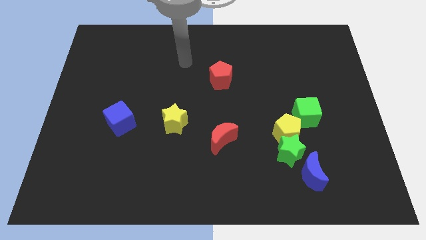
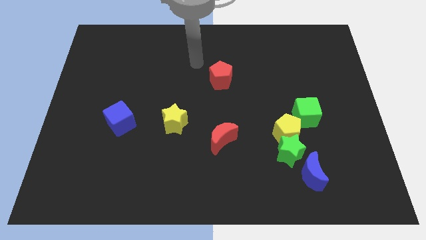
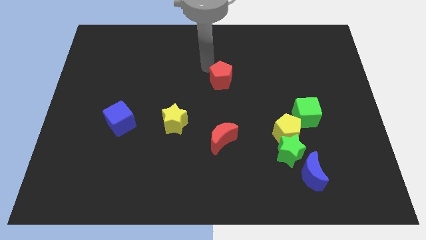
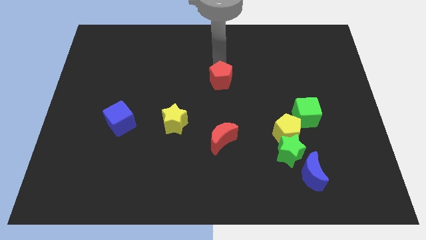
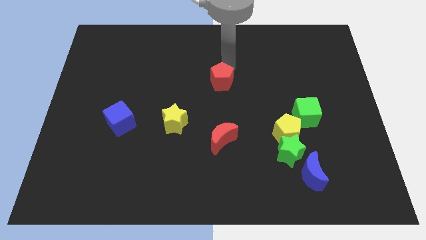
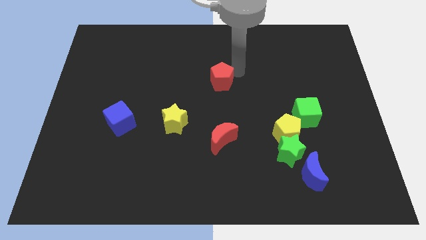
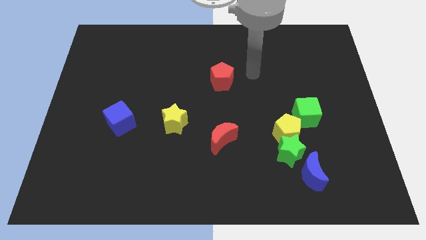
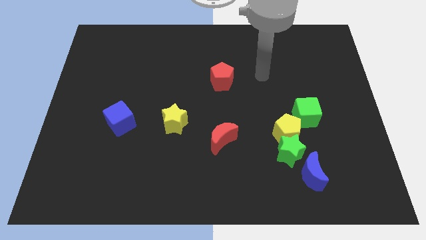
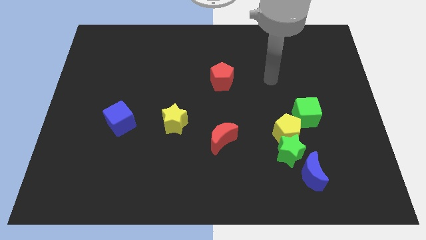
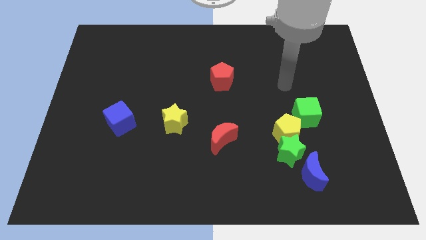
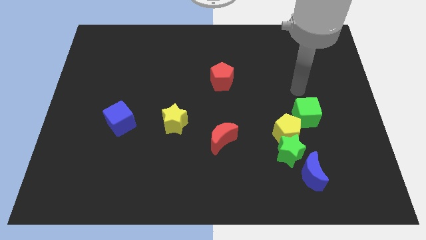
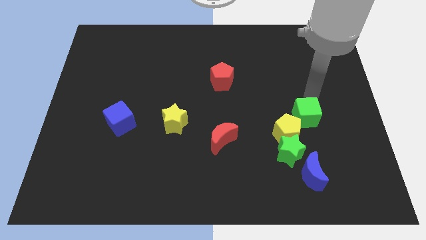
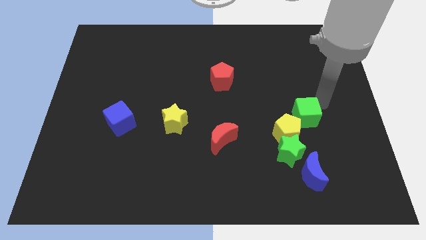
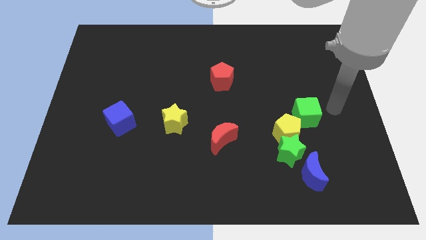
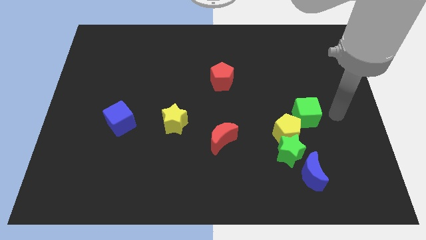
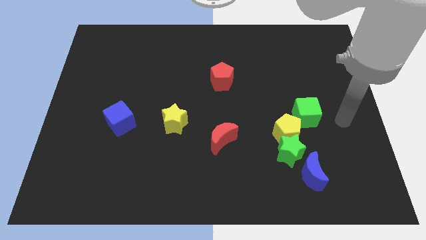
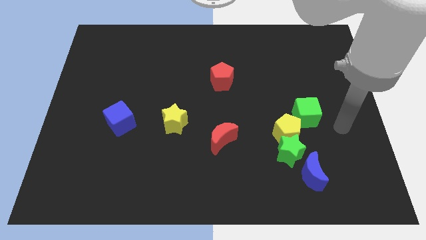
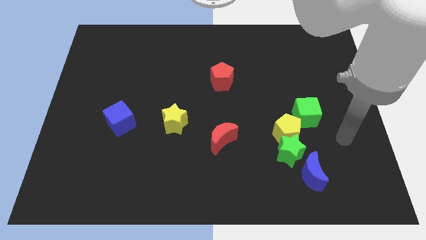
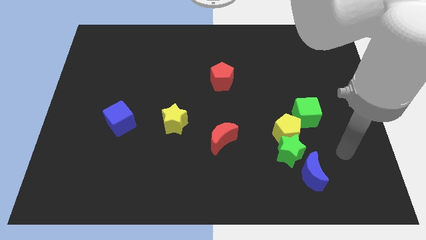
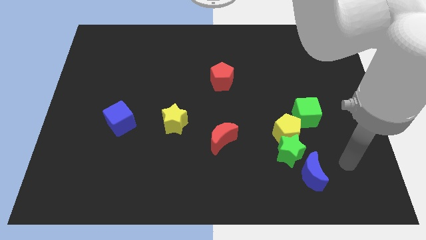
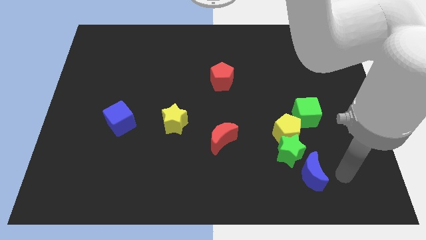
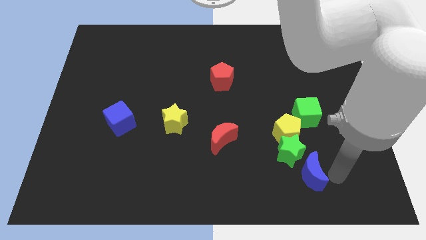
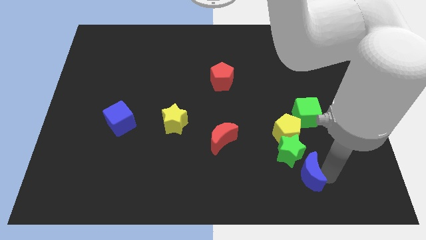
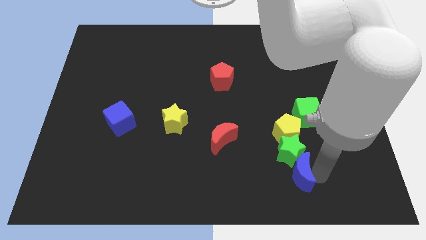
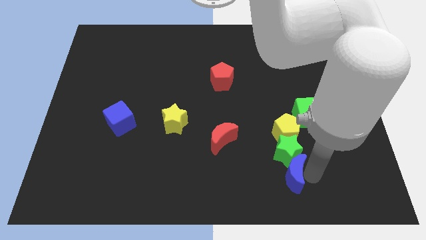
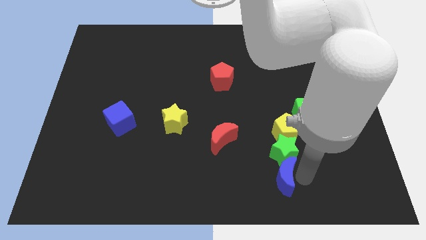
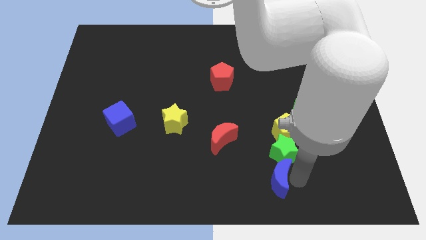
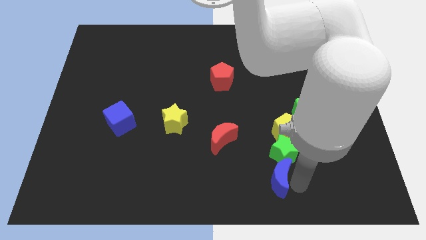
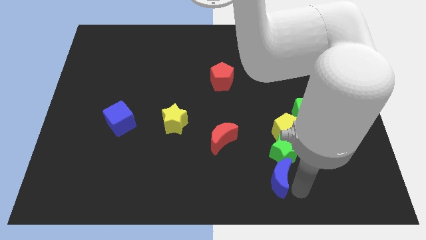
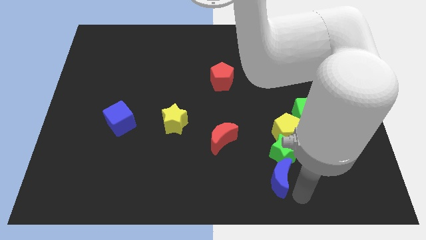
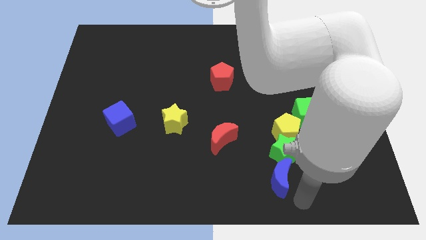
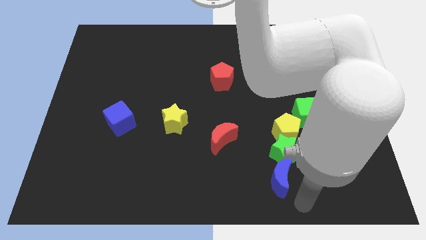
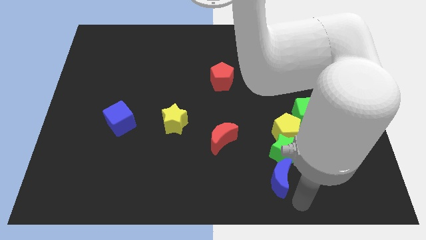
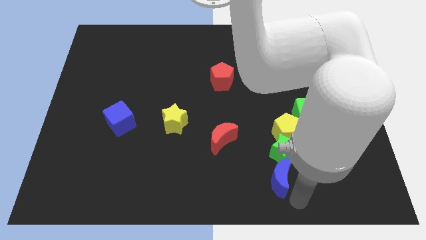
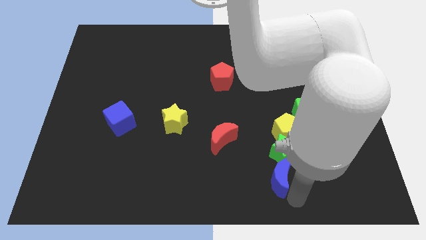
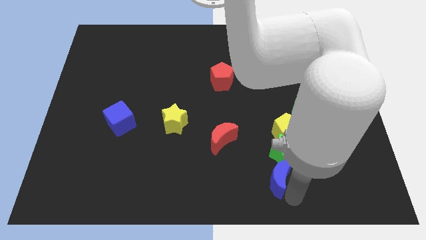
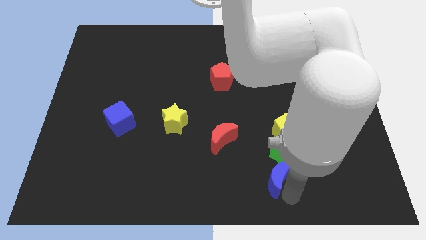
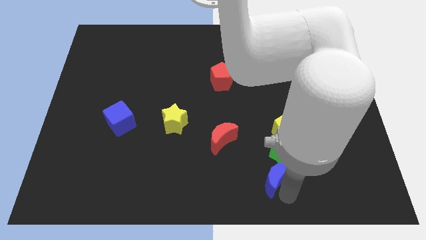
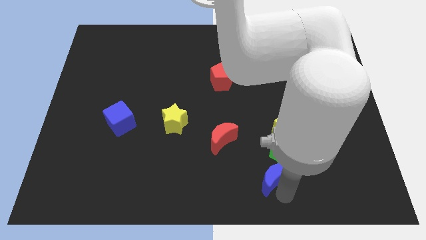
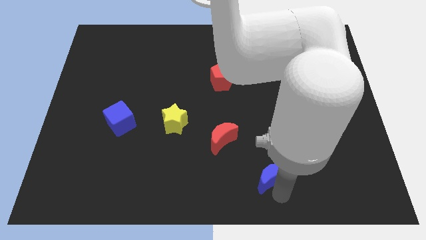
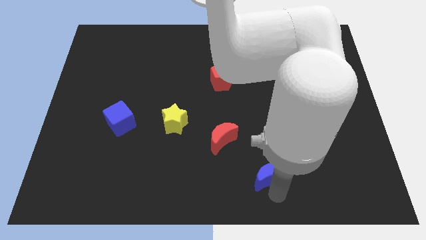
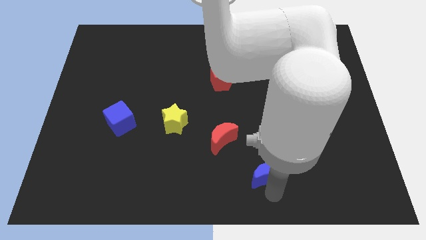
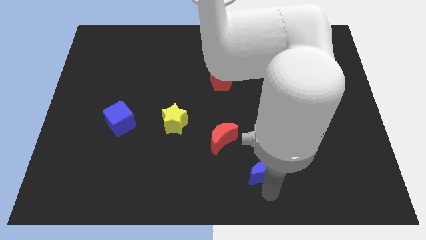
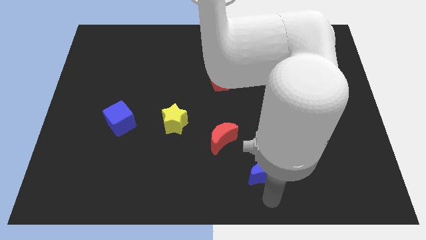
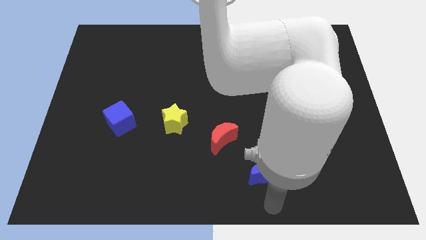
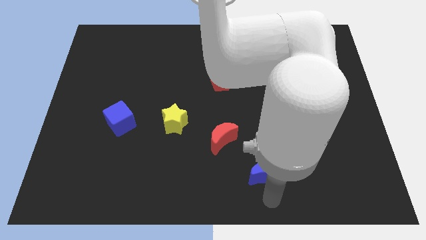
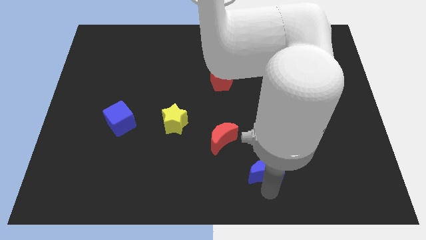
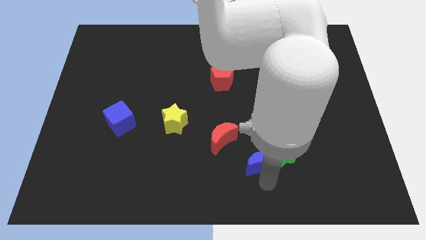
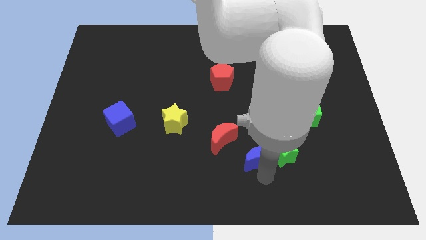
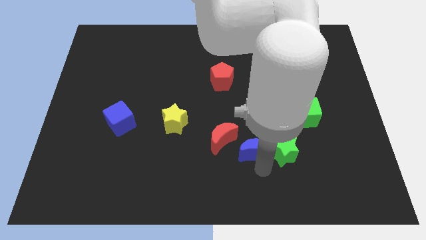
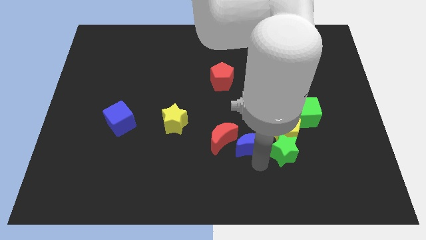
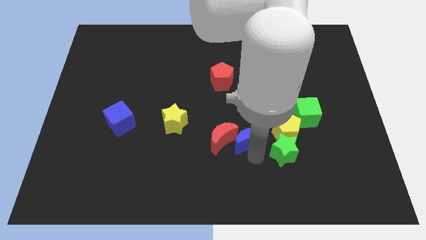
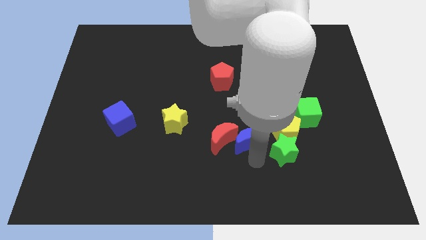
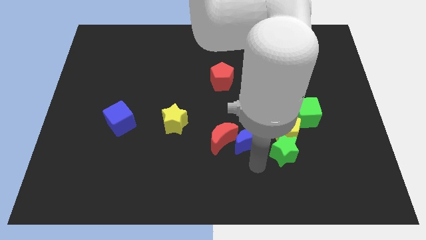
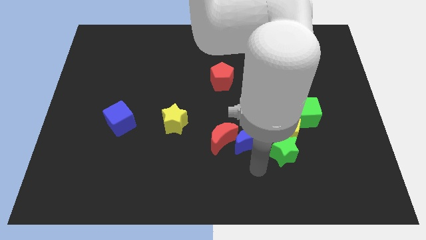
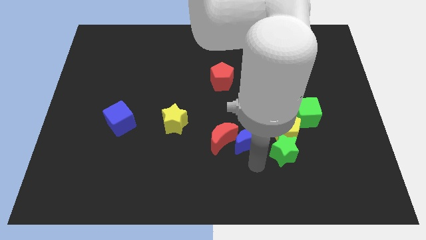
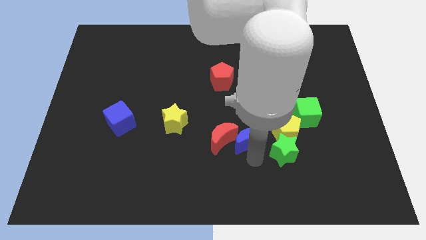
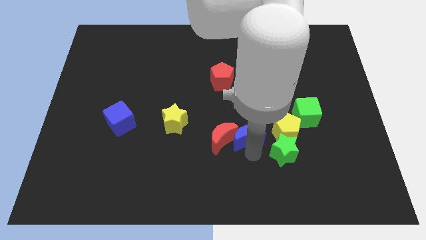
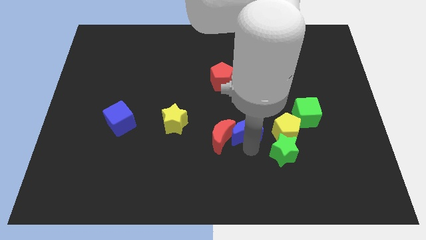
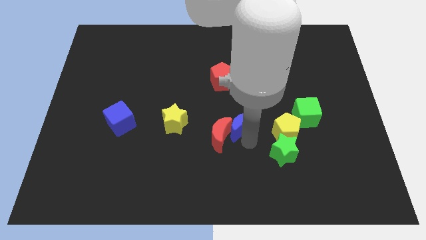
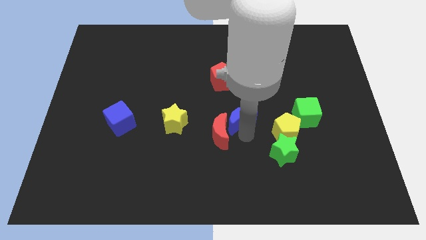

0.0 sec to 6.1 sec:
put the blue moon above the red moon

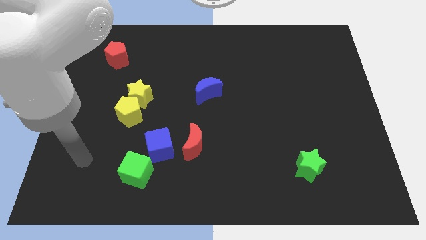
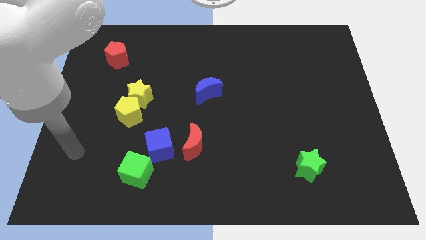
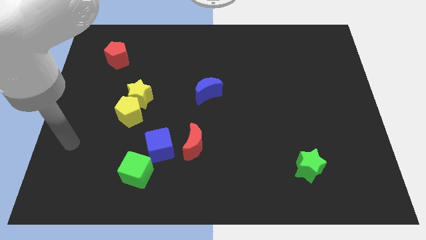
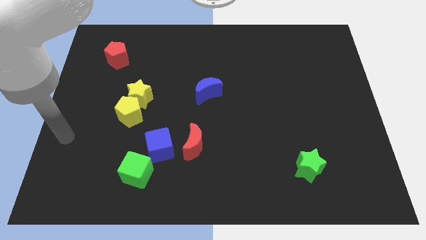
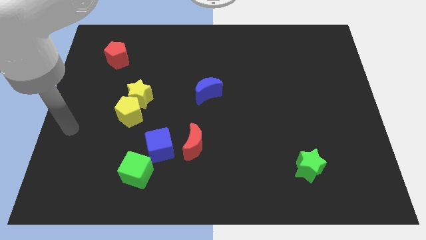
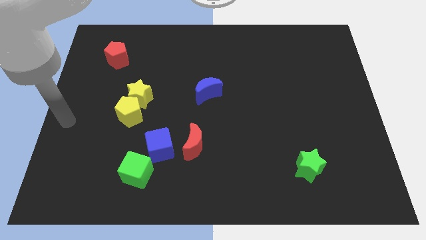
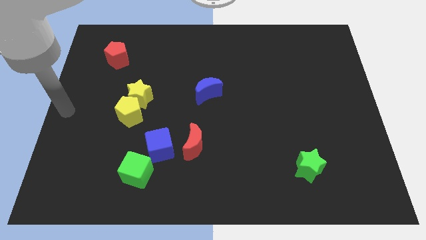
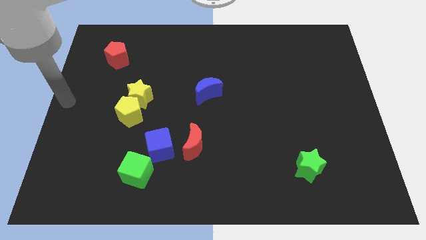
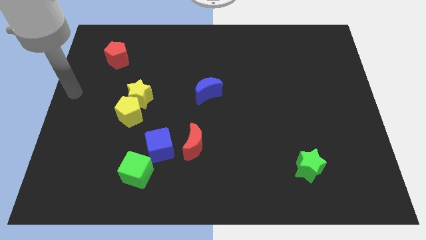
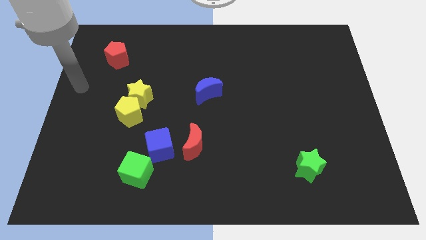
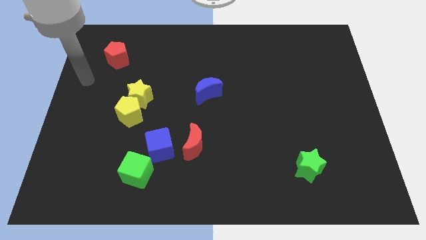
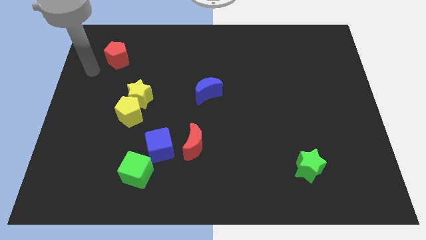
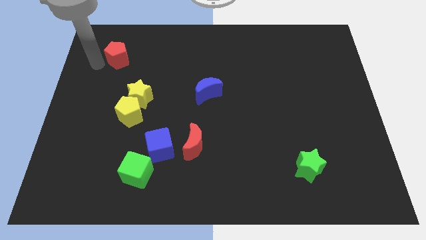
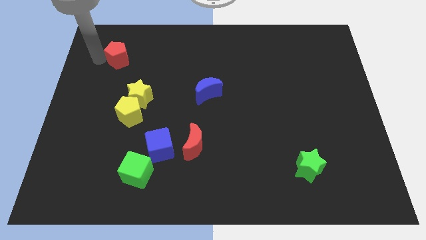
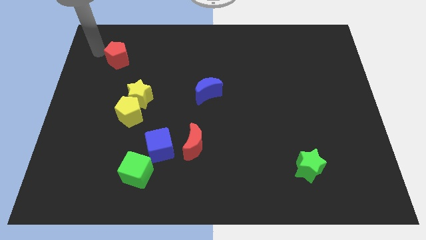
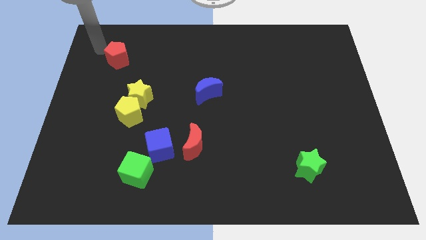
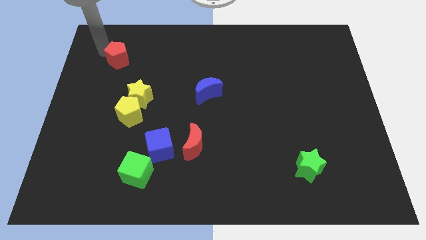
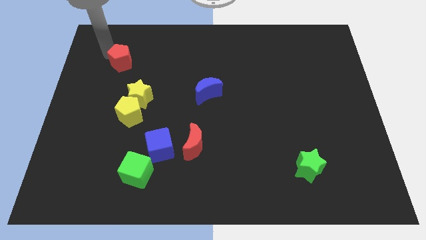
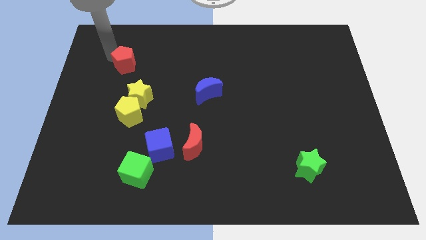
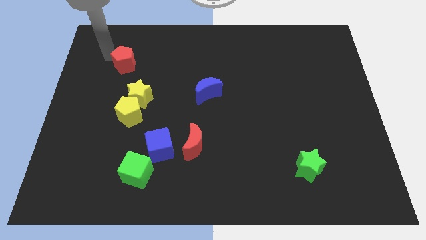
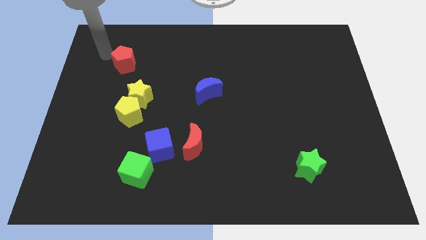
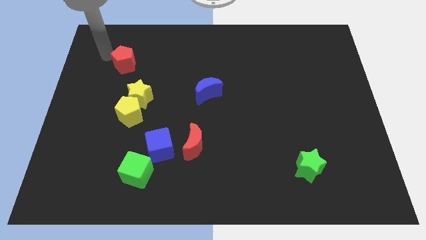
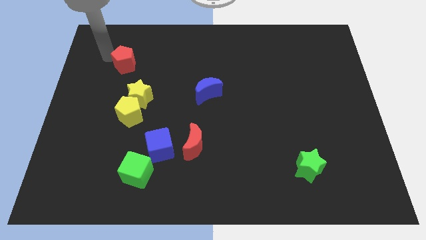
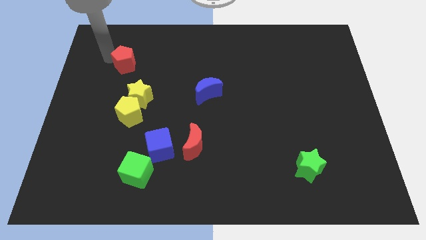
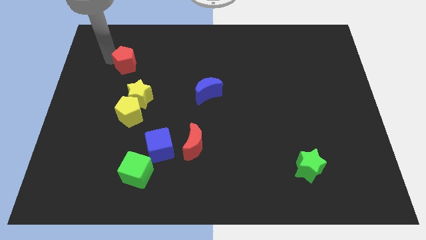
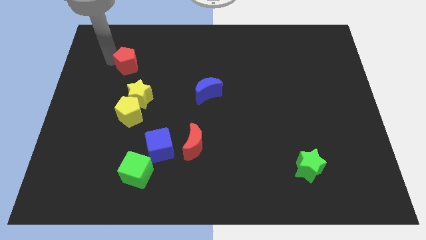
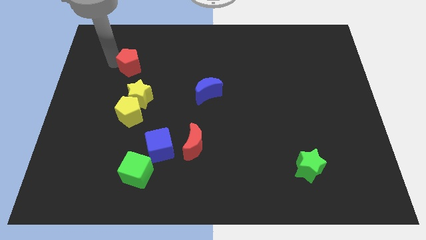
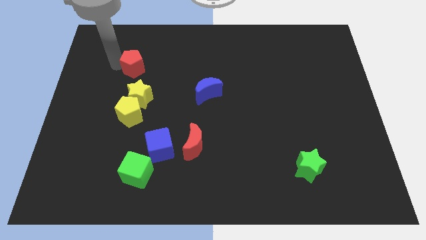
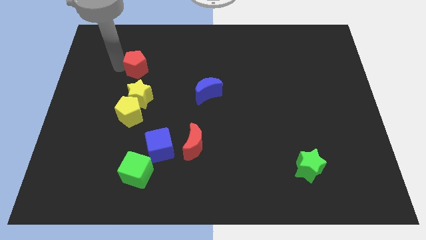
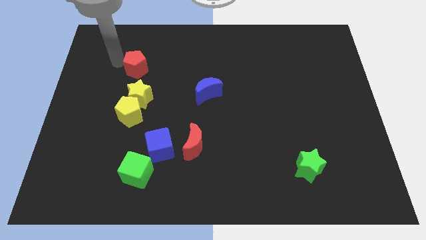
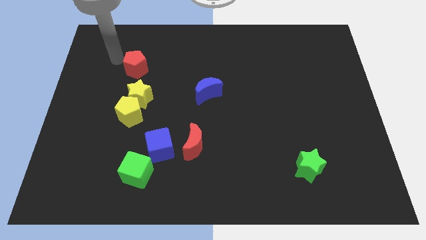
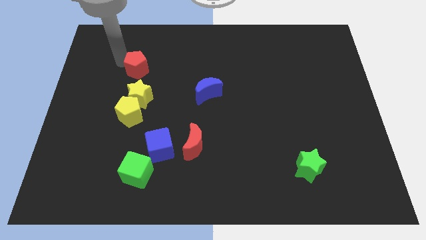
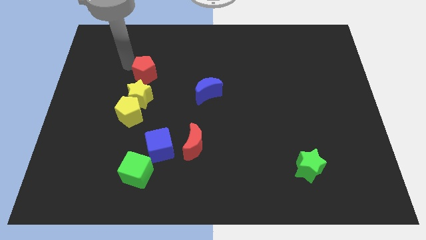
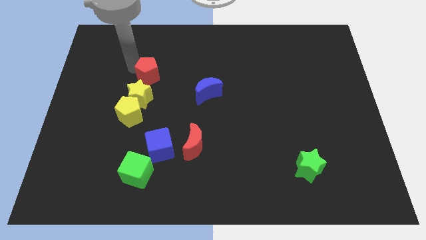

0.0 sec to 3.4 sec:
move the red pentagon to the top right side of the yellow star
